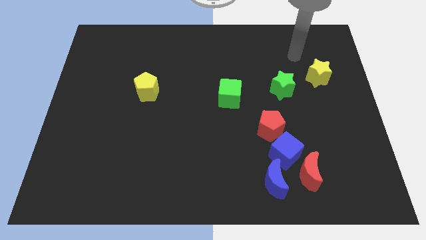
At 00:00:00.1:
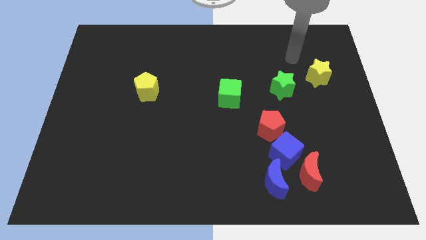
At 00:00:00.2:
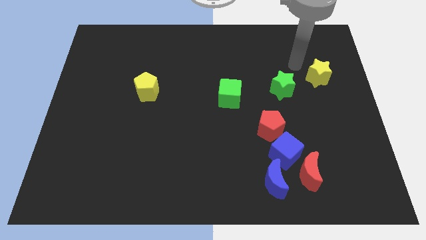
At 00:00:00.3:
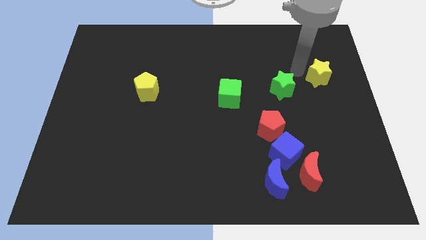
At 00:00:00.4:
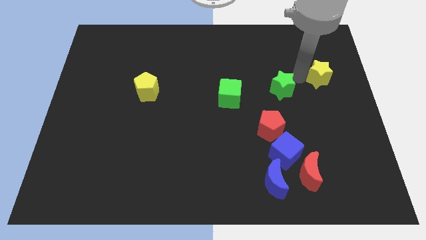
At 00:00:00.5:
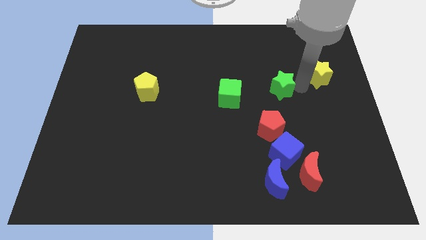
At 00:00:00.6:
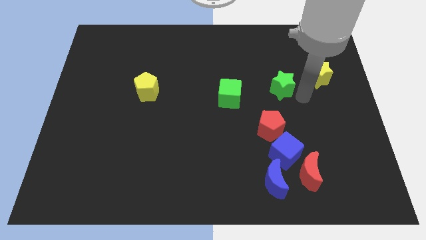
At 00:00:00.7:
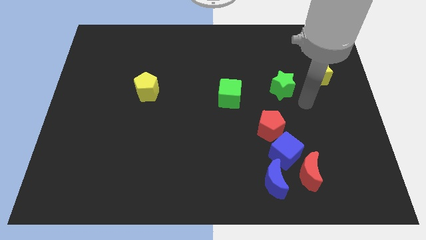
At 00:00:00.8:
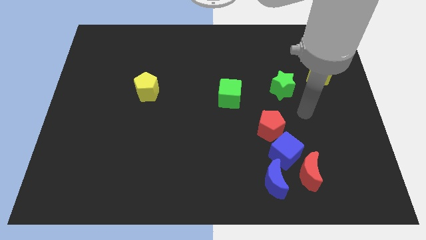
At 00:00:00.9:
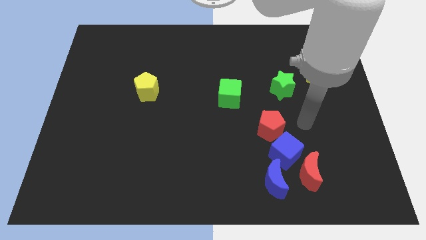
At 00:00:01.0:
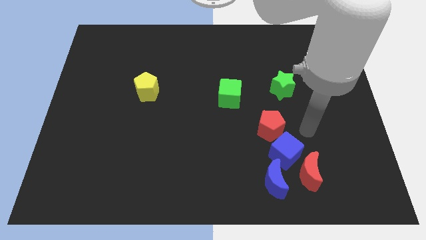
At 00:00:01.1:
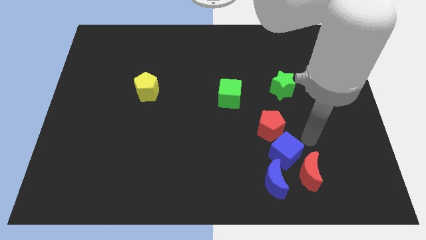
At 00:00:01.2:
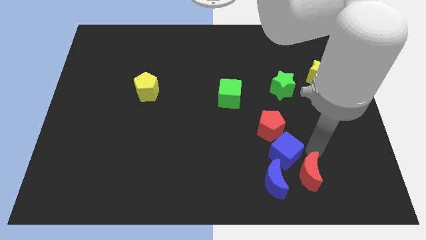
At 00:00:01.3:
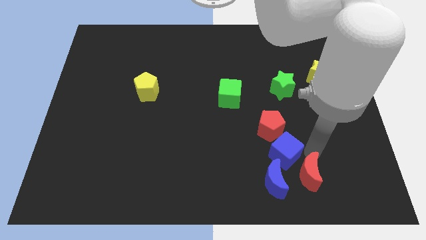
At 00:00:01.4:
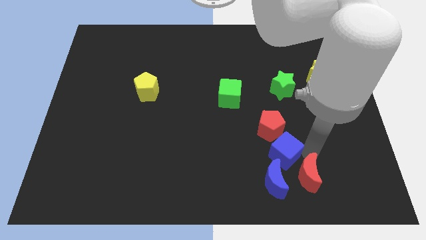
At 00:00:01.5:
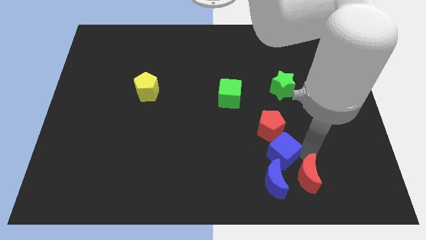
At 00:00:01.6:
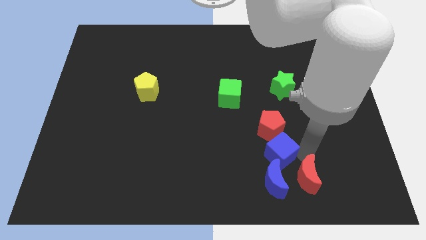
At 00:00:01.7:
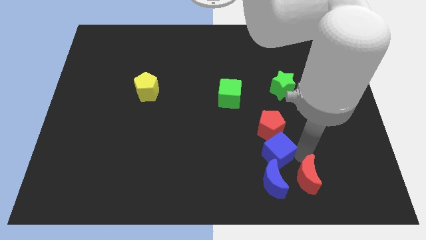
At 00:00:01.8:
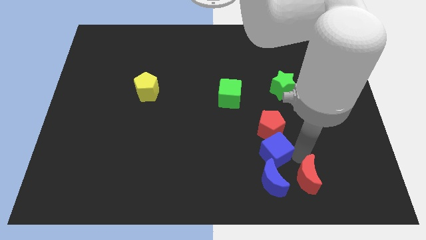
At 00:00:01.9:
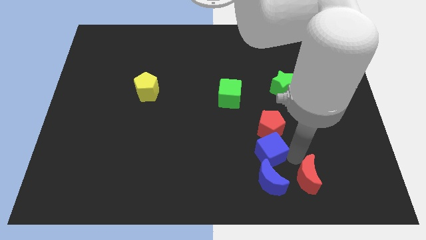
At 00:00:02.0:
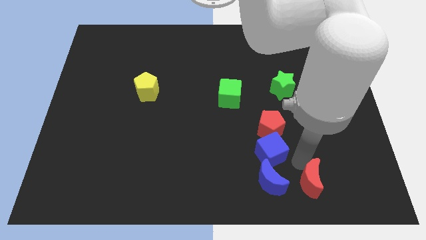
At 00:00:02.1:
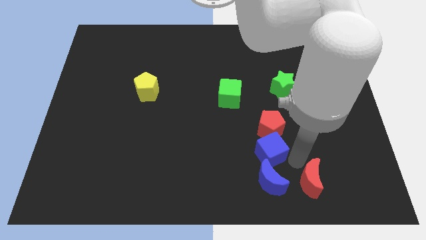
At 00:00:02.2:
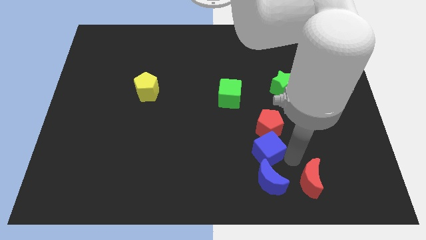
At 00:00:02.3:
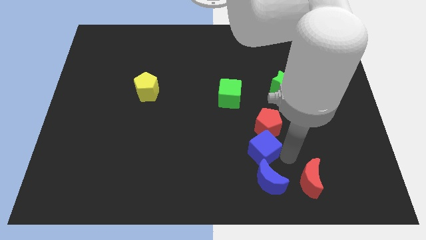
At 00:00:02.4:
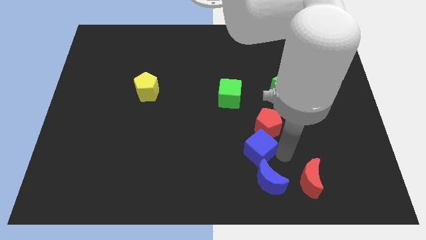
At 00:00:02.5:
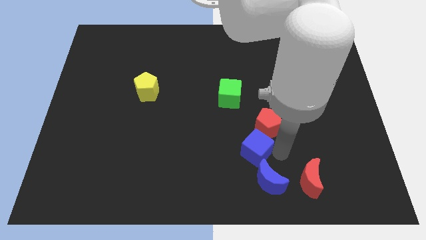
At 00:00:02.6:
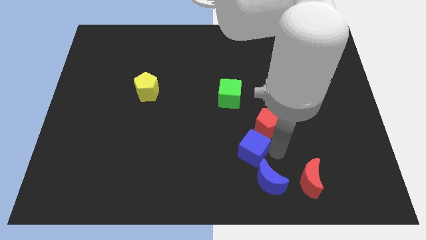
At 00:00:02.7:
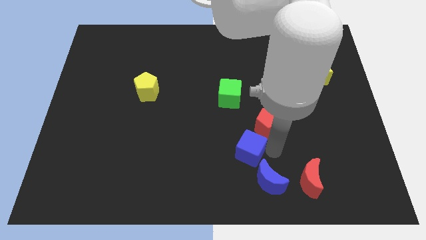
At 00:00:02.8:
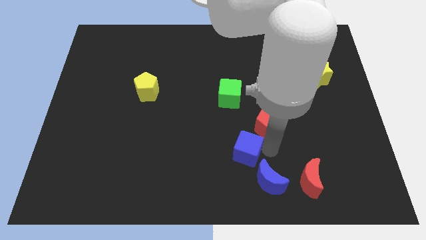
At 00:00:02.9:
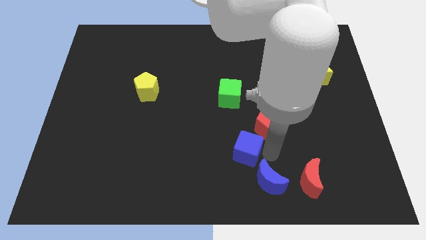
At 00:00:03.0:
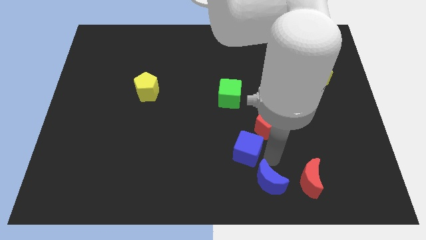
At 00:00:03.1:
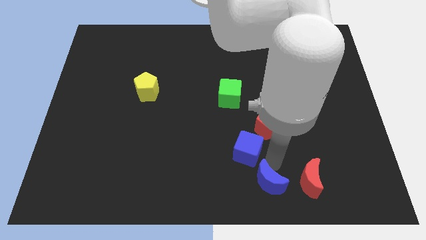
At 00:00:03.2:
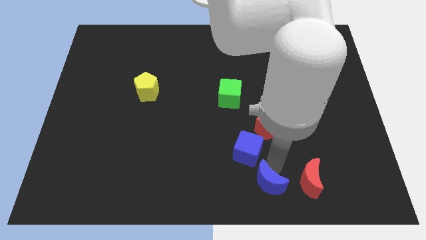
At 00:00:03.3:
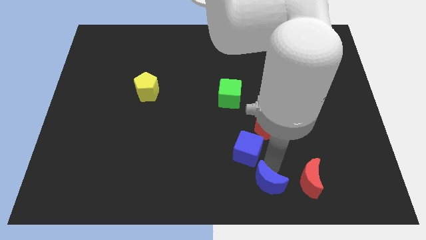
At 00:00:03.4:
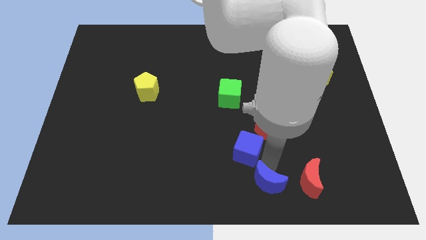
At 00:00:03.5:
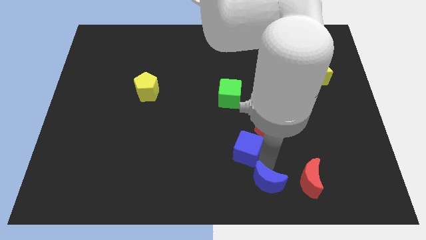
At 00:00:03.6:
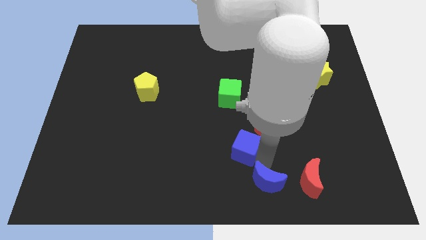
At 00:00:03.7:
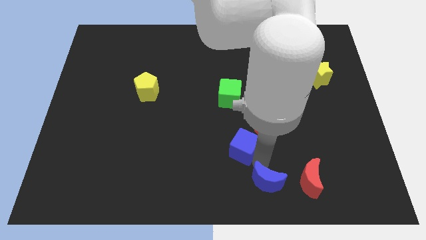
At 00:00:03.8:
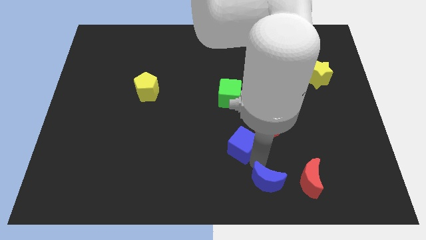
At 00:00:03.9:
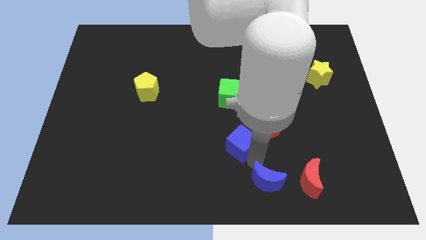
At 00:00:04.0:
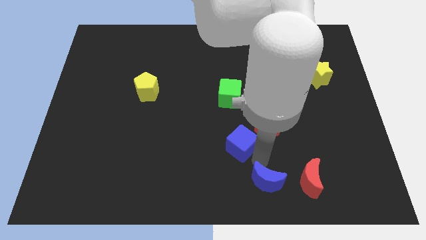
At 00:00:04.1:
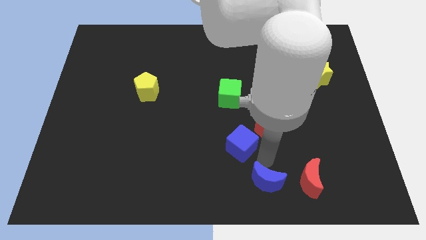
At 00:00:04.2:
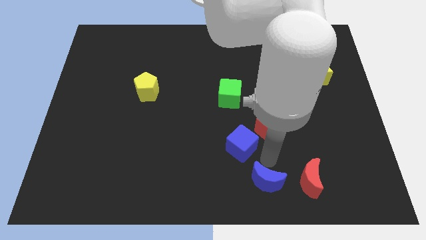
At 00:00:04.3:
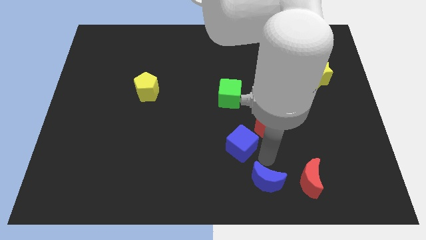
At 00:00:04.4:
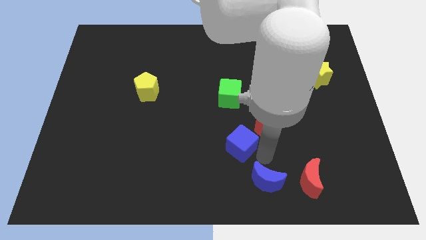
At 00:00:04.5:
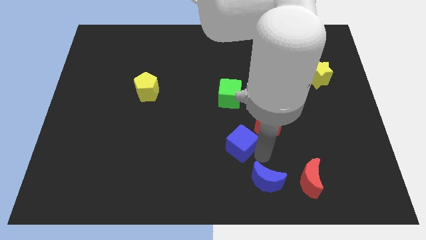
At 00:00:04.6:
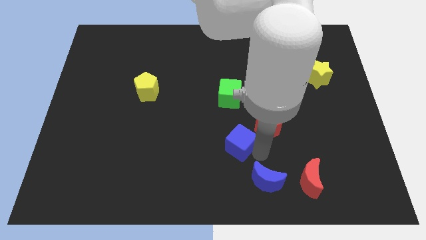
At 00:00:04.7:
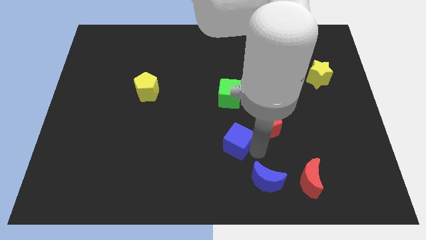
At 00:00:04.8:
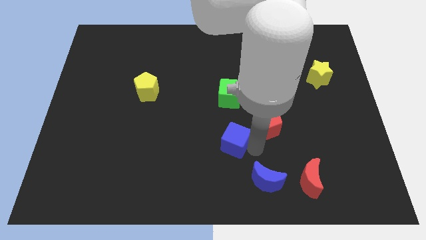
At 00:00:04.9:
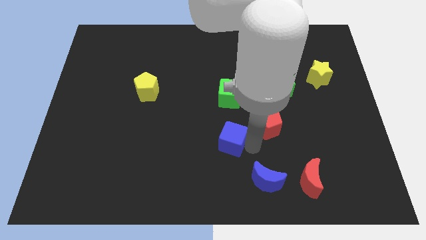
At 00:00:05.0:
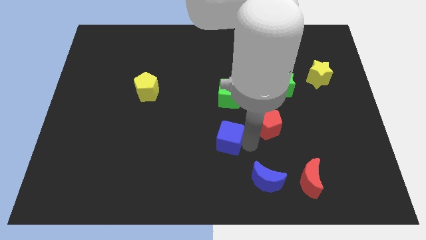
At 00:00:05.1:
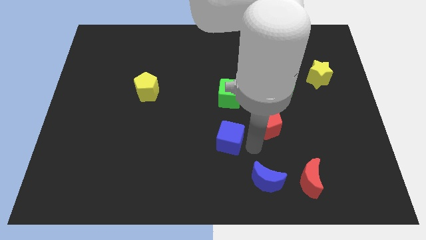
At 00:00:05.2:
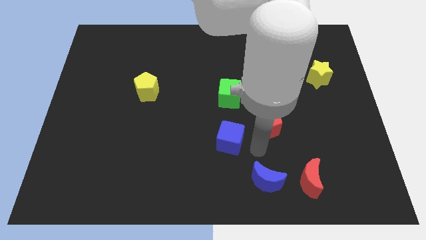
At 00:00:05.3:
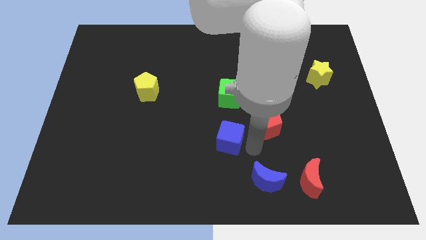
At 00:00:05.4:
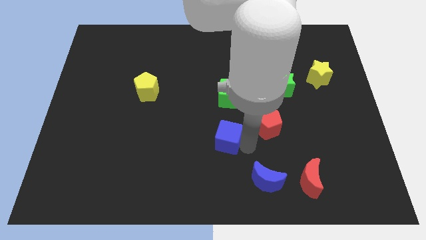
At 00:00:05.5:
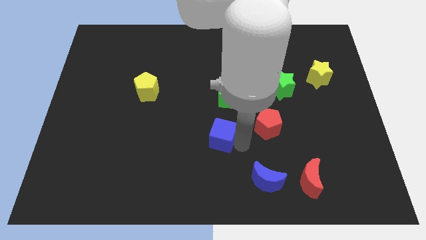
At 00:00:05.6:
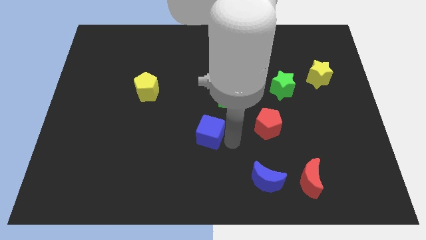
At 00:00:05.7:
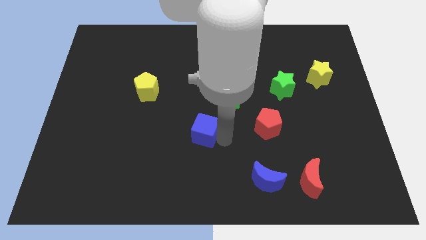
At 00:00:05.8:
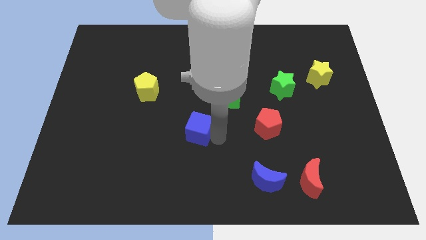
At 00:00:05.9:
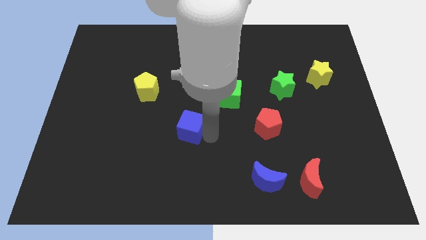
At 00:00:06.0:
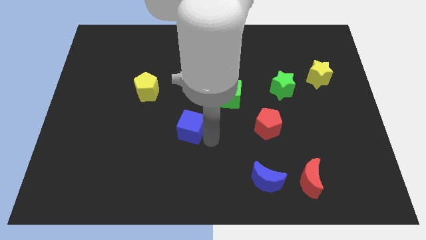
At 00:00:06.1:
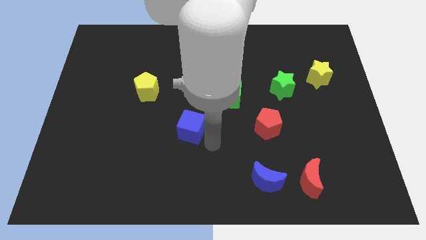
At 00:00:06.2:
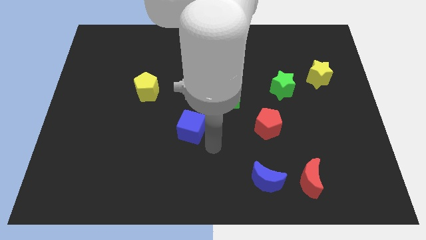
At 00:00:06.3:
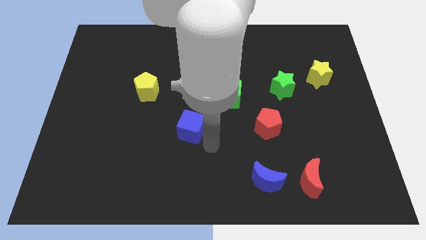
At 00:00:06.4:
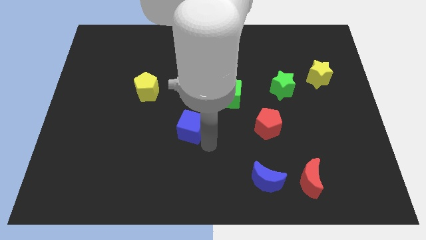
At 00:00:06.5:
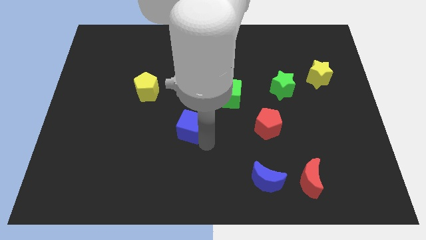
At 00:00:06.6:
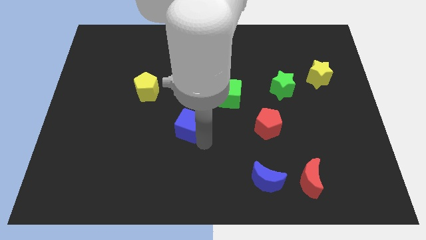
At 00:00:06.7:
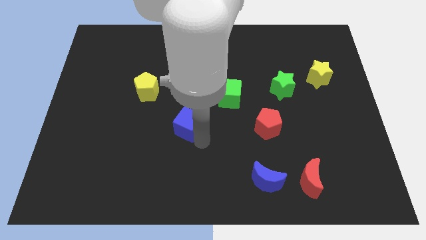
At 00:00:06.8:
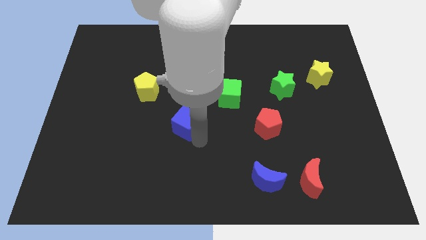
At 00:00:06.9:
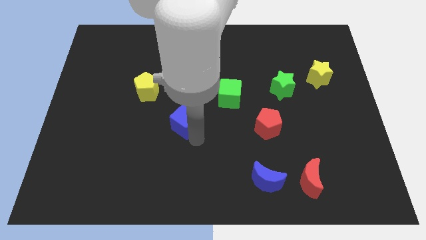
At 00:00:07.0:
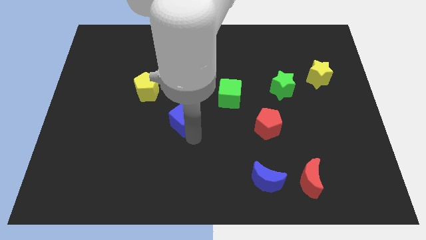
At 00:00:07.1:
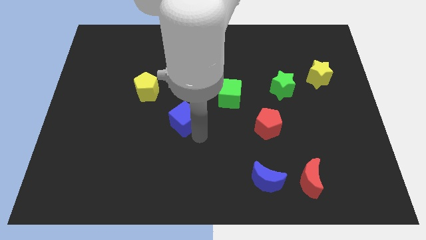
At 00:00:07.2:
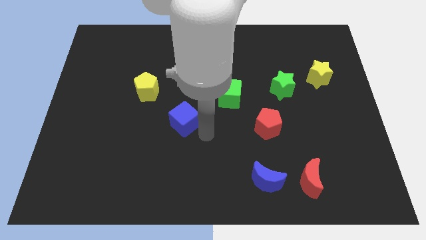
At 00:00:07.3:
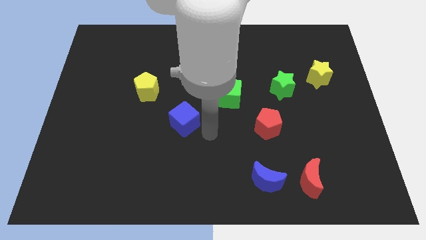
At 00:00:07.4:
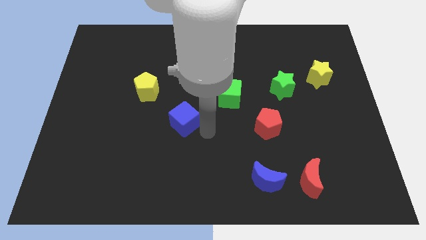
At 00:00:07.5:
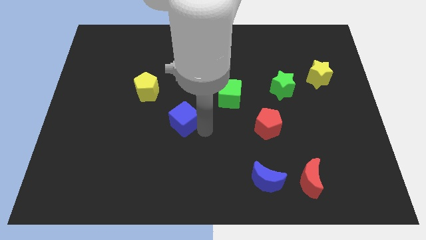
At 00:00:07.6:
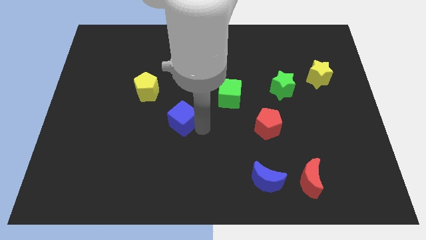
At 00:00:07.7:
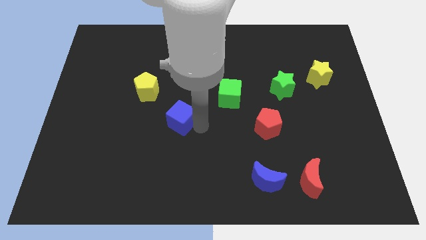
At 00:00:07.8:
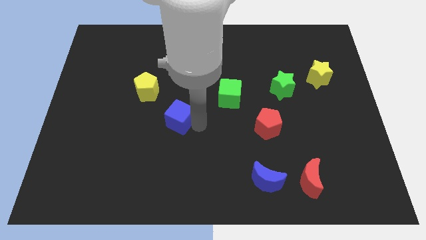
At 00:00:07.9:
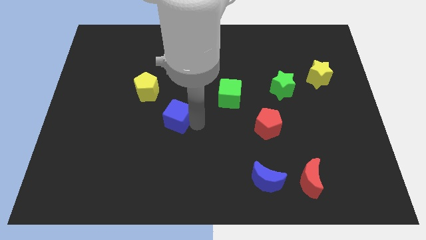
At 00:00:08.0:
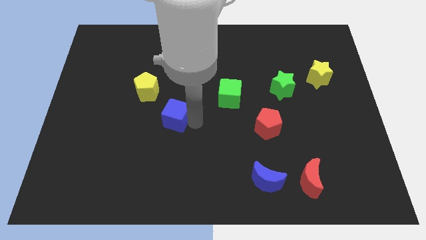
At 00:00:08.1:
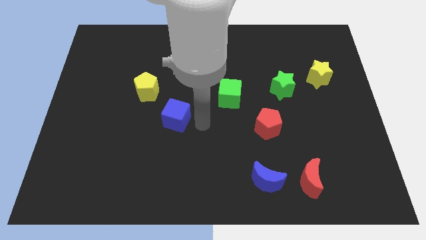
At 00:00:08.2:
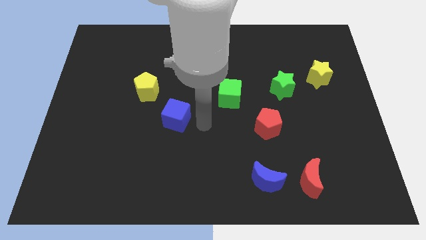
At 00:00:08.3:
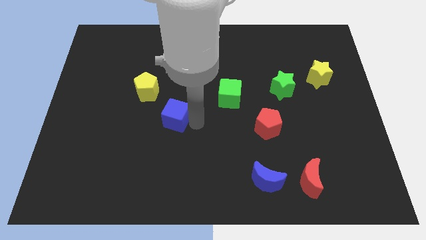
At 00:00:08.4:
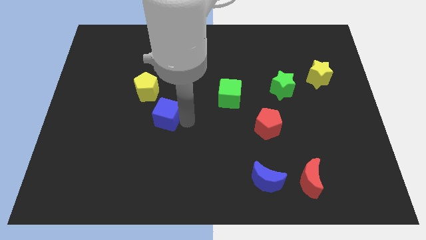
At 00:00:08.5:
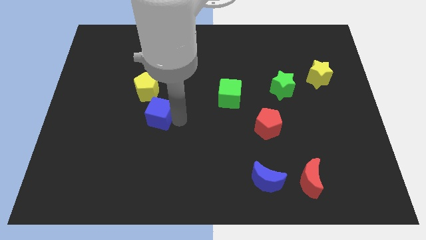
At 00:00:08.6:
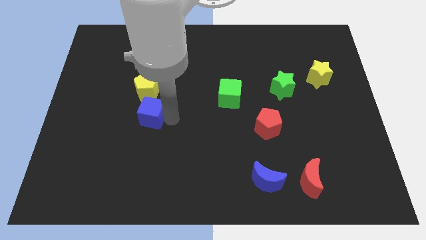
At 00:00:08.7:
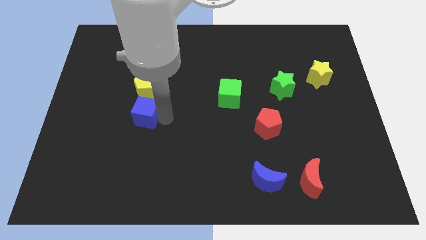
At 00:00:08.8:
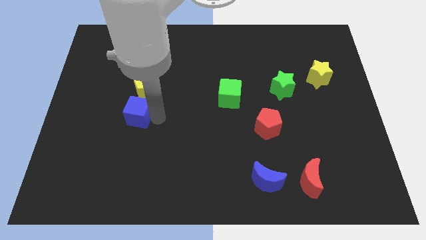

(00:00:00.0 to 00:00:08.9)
slide the blue cube to the bottom left of the yellow pentagon
